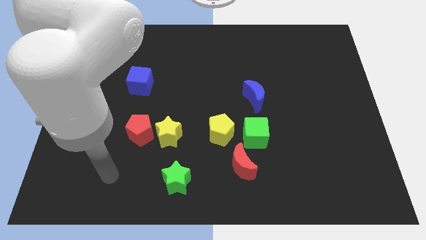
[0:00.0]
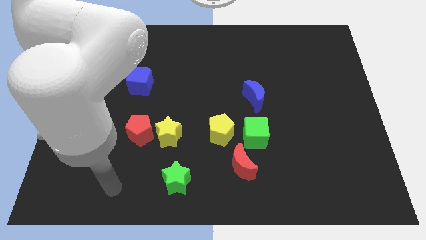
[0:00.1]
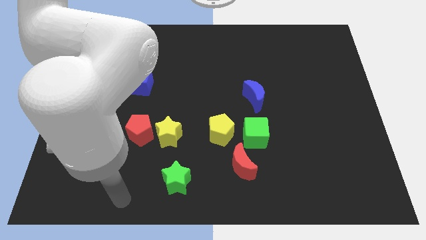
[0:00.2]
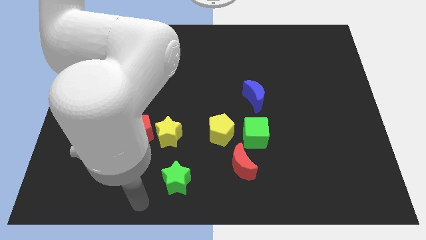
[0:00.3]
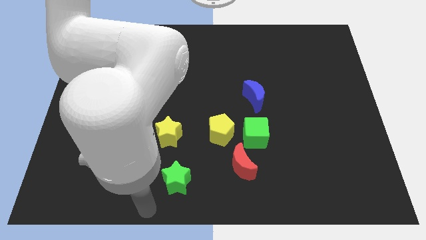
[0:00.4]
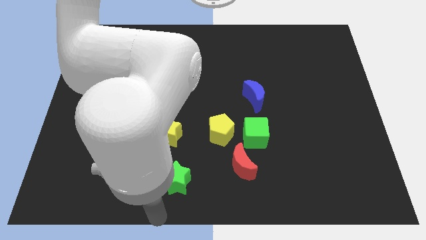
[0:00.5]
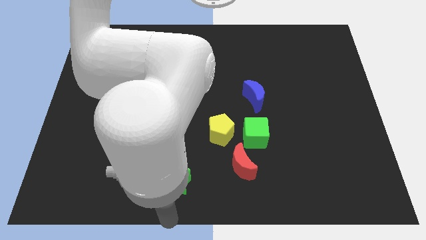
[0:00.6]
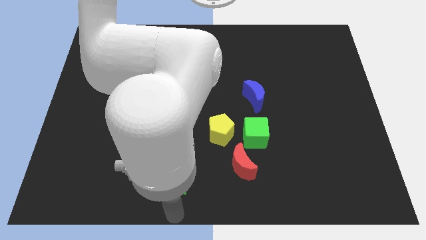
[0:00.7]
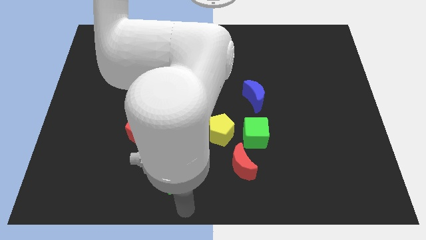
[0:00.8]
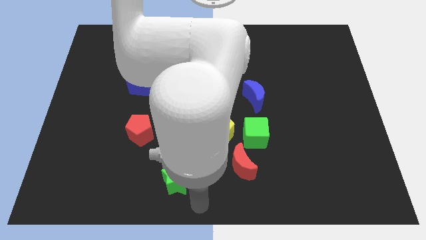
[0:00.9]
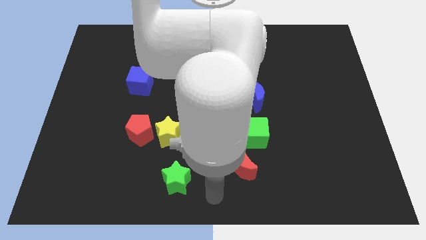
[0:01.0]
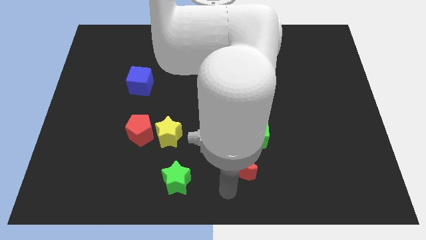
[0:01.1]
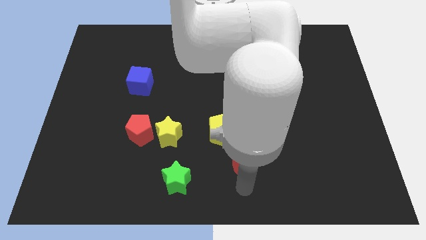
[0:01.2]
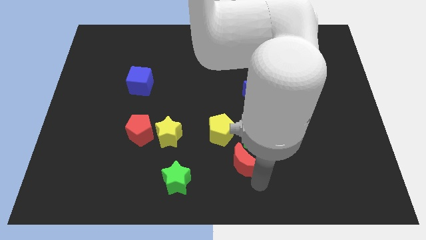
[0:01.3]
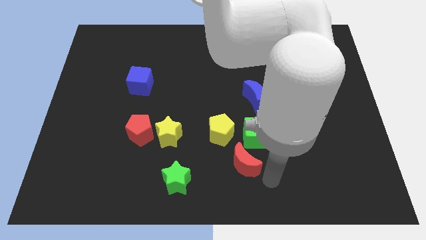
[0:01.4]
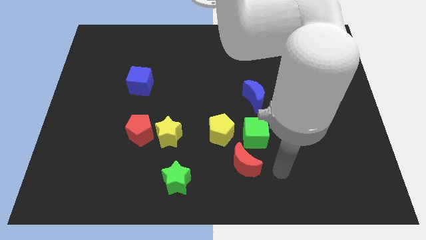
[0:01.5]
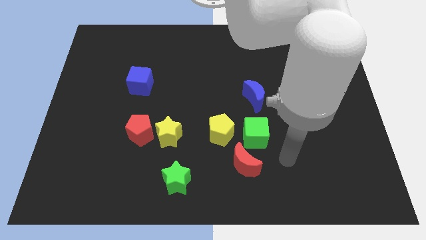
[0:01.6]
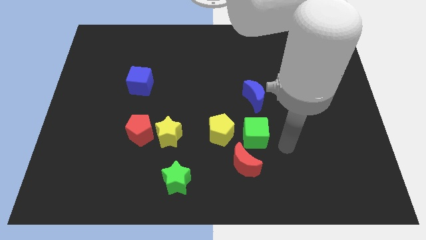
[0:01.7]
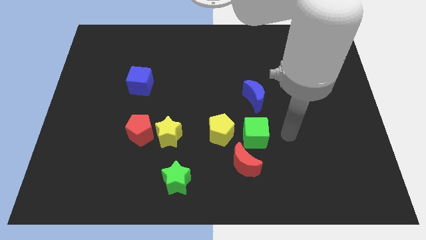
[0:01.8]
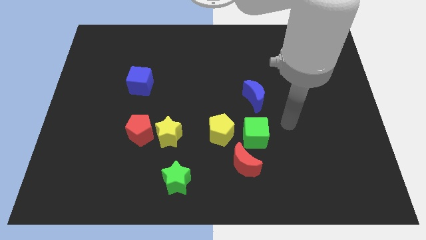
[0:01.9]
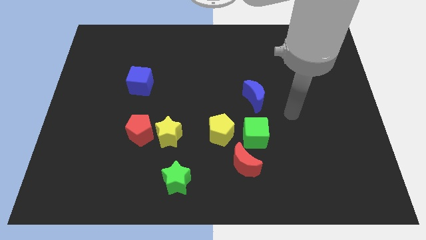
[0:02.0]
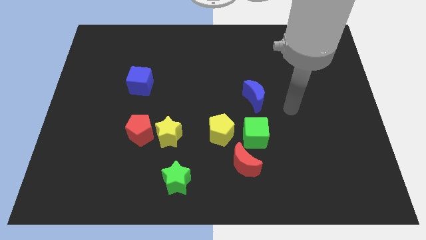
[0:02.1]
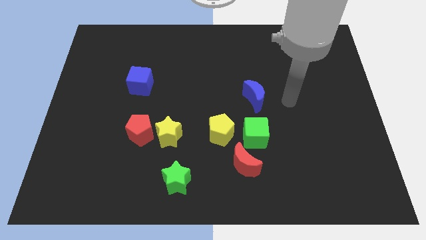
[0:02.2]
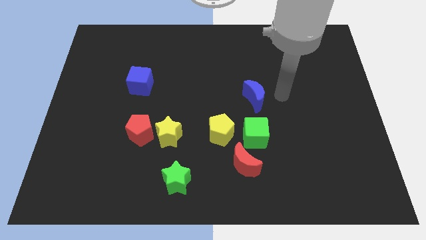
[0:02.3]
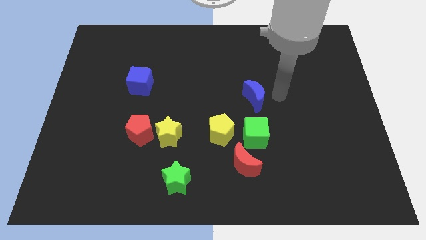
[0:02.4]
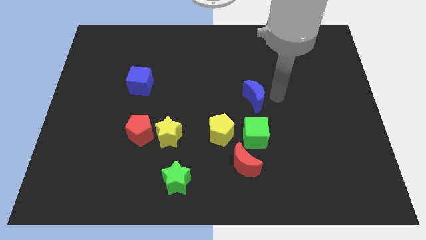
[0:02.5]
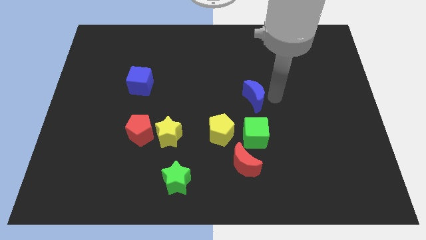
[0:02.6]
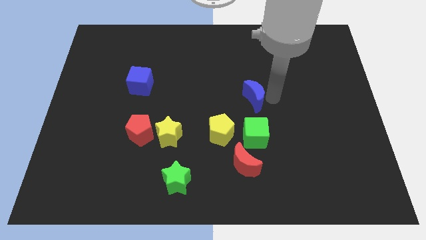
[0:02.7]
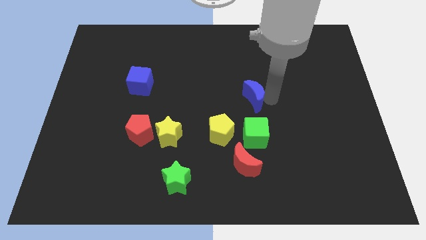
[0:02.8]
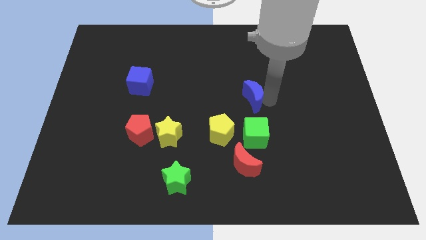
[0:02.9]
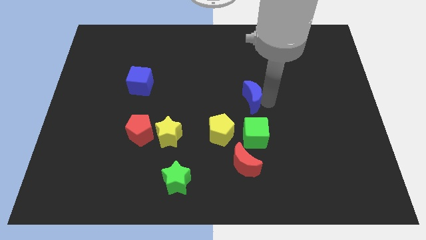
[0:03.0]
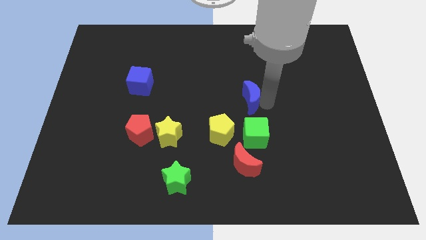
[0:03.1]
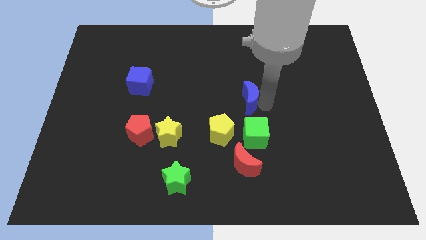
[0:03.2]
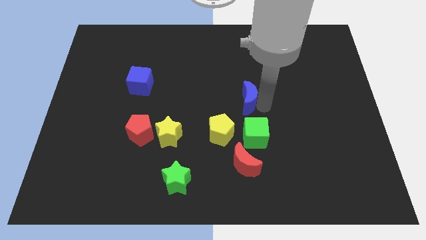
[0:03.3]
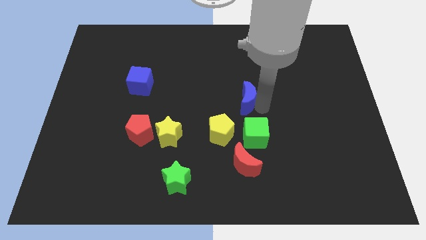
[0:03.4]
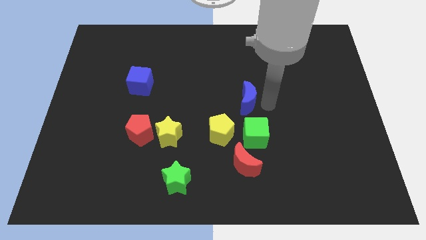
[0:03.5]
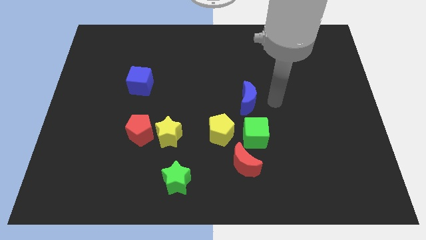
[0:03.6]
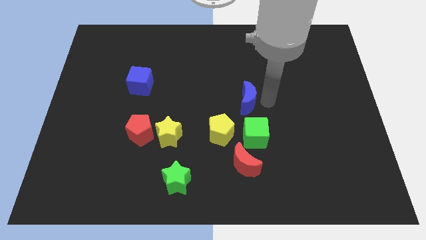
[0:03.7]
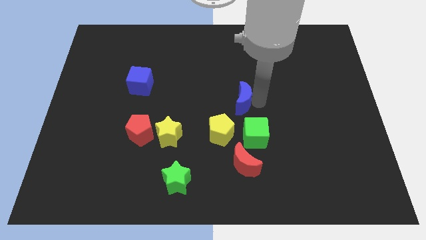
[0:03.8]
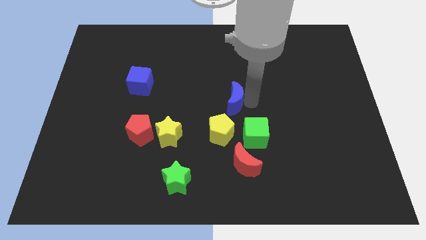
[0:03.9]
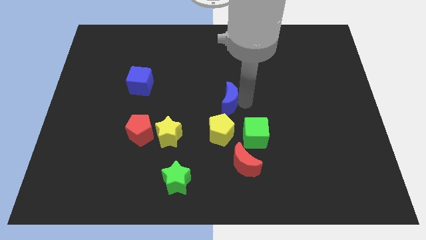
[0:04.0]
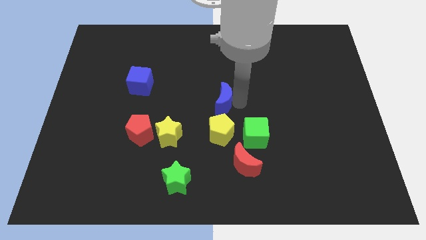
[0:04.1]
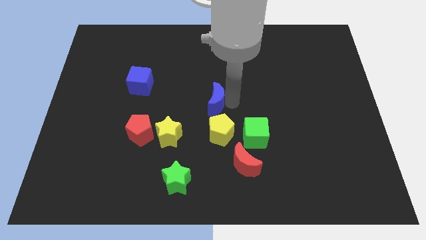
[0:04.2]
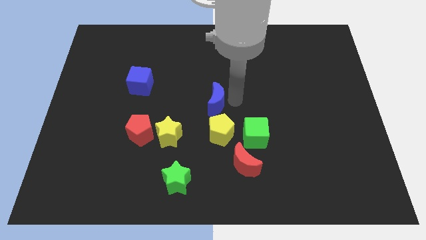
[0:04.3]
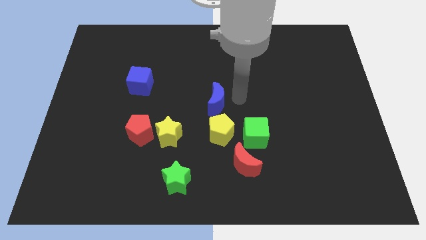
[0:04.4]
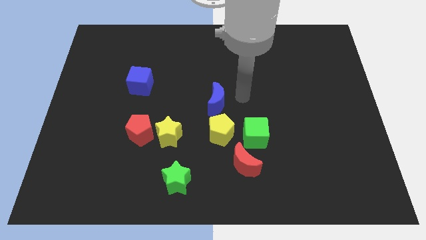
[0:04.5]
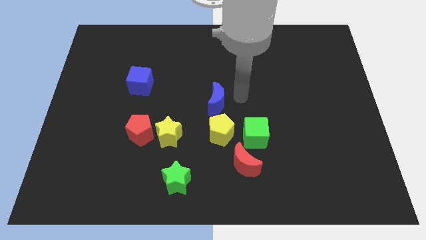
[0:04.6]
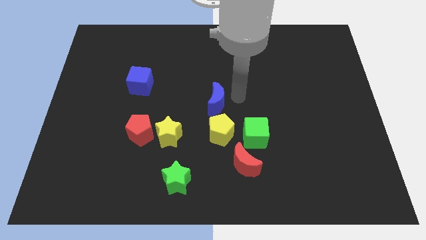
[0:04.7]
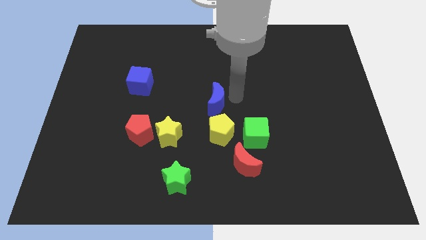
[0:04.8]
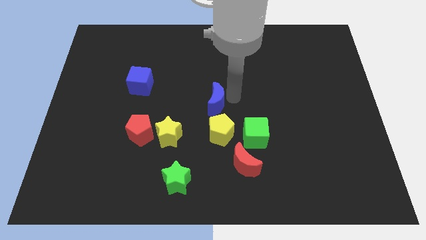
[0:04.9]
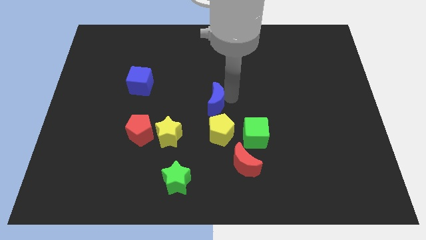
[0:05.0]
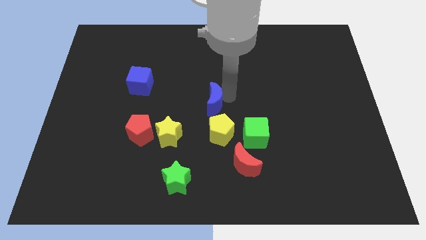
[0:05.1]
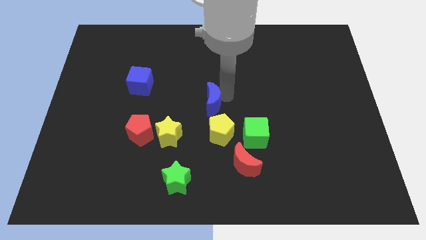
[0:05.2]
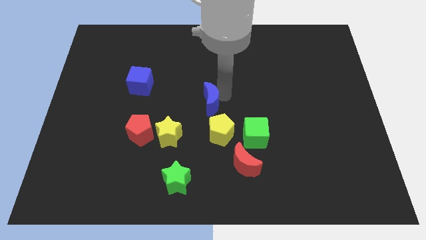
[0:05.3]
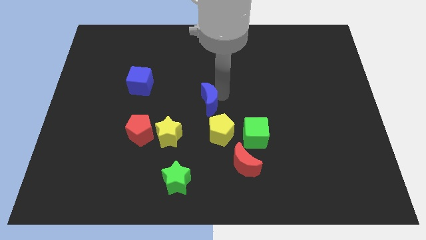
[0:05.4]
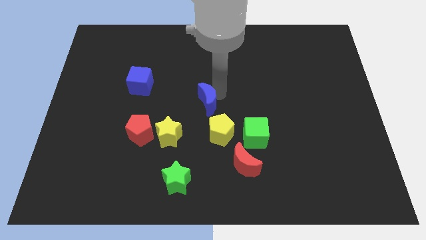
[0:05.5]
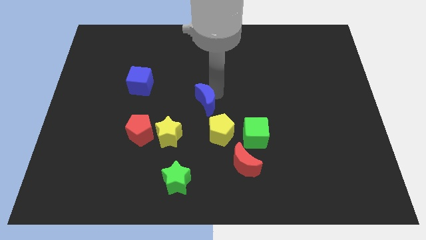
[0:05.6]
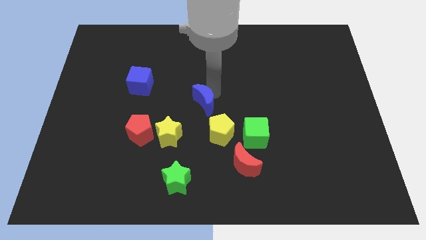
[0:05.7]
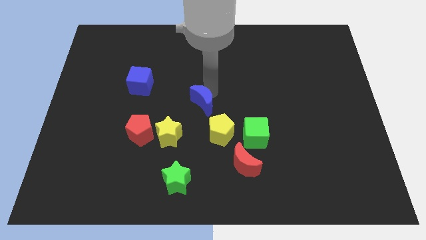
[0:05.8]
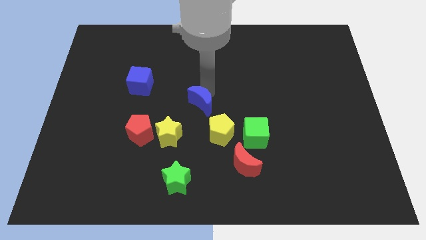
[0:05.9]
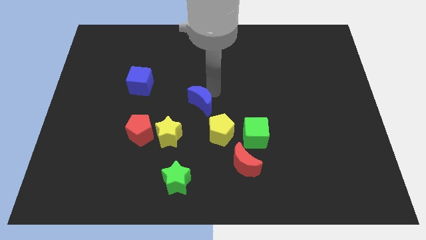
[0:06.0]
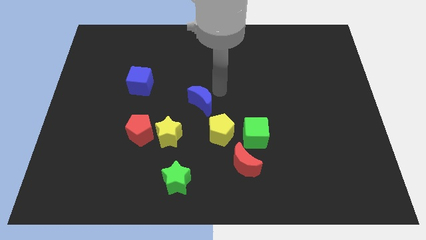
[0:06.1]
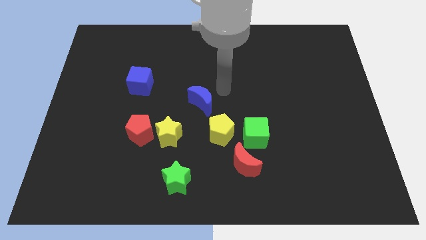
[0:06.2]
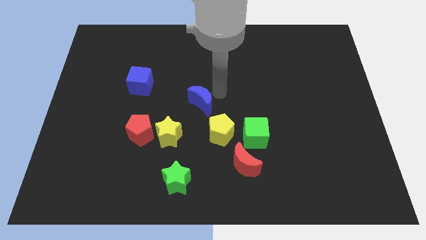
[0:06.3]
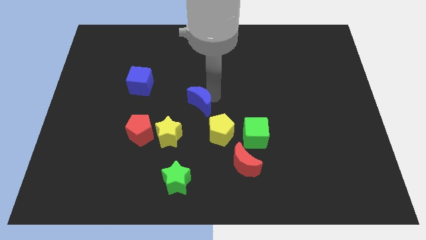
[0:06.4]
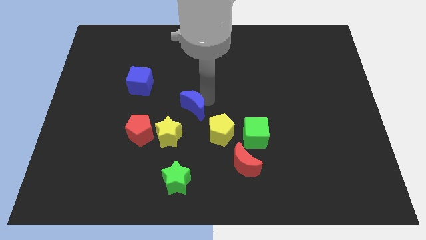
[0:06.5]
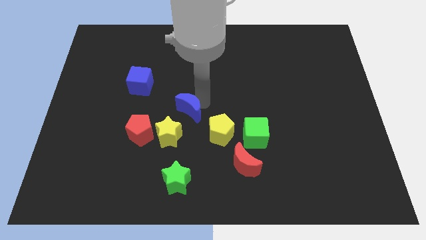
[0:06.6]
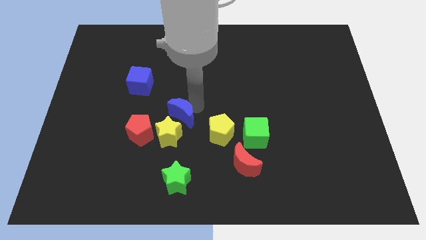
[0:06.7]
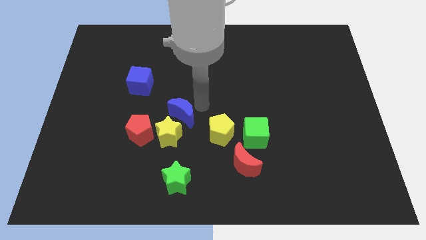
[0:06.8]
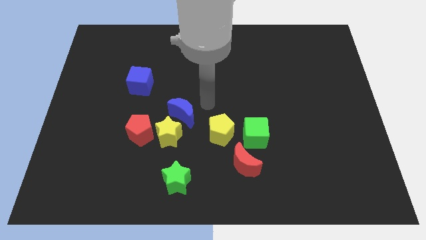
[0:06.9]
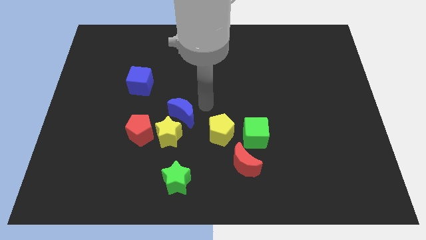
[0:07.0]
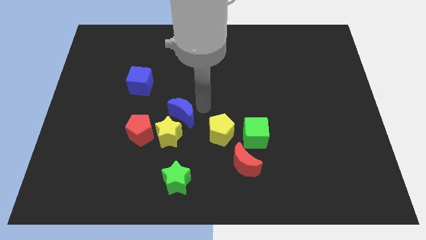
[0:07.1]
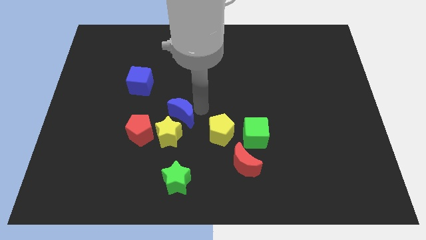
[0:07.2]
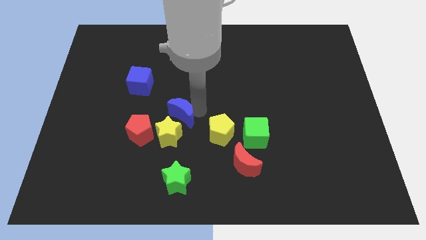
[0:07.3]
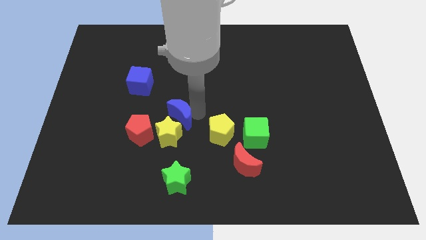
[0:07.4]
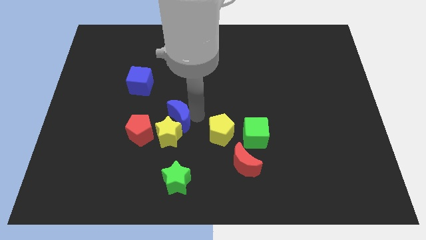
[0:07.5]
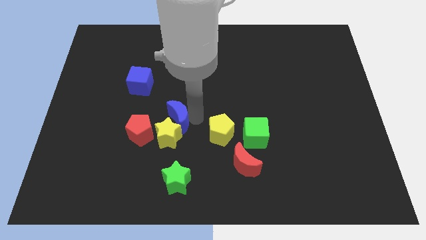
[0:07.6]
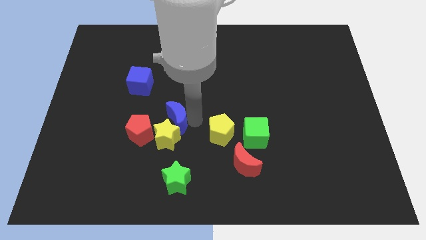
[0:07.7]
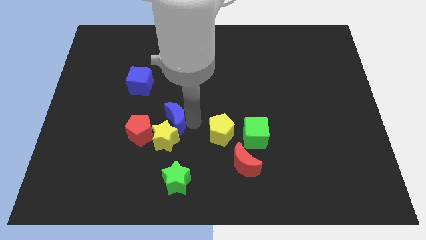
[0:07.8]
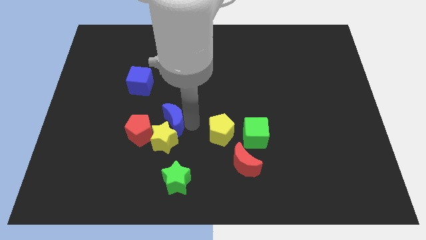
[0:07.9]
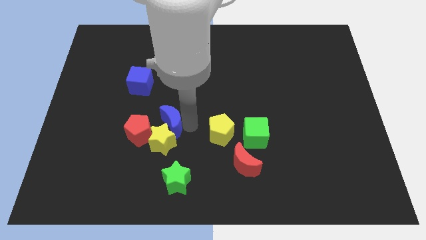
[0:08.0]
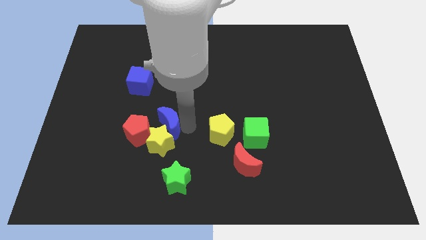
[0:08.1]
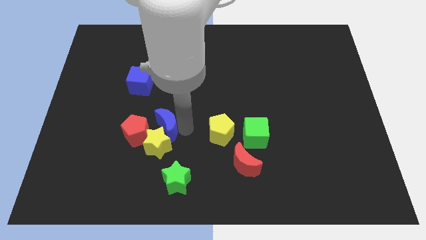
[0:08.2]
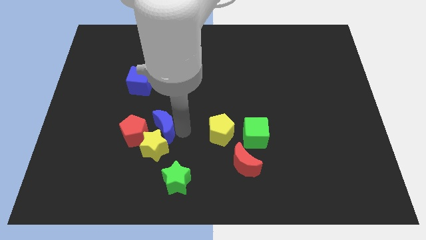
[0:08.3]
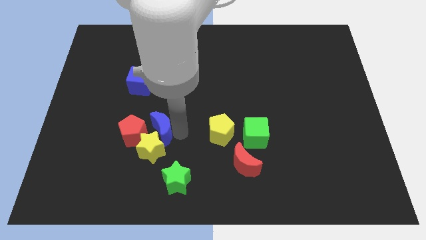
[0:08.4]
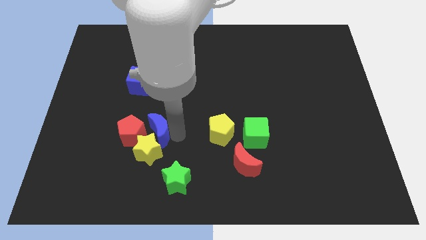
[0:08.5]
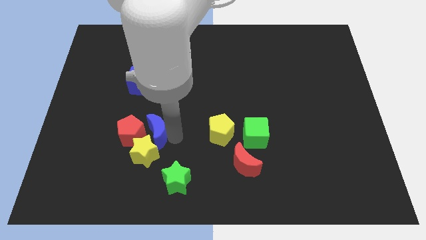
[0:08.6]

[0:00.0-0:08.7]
put the blue moon next to the red pentagon
